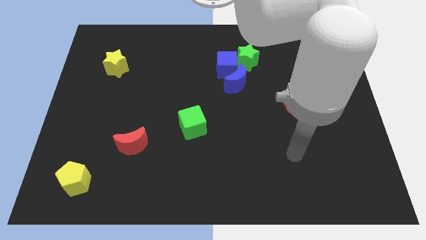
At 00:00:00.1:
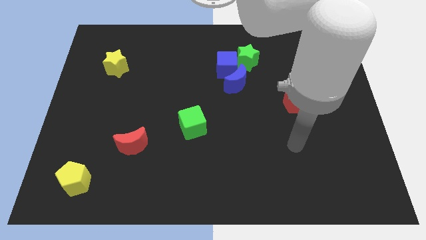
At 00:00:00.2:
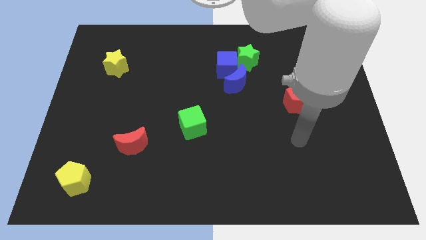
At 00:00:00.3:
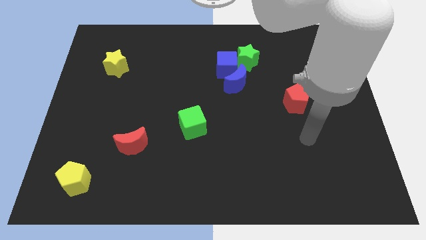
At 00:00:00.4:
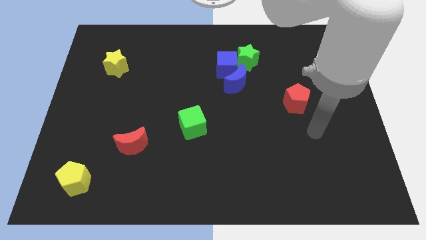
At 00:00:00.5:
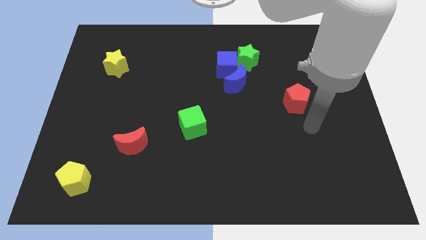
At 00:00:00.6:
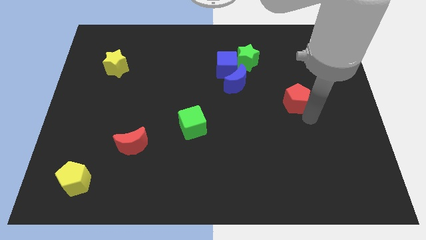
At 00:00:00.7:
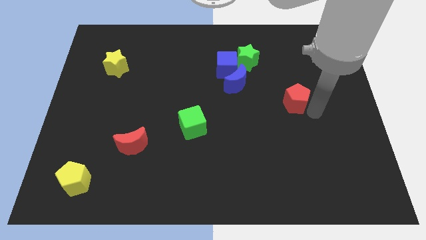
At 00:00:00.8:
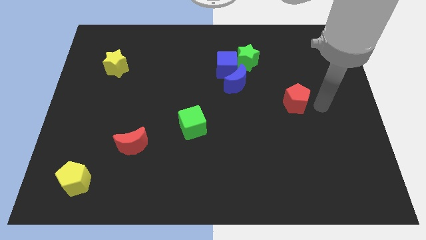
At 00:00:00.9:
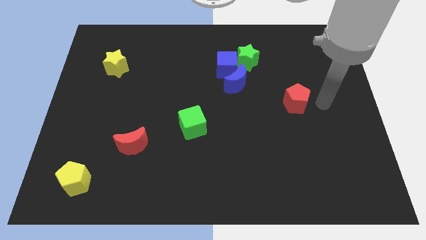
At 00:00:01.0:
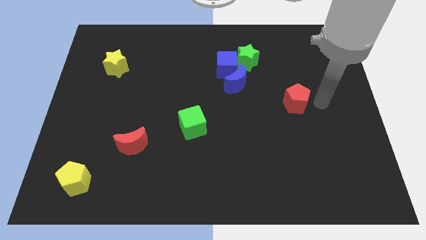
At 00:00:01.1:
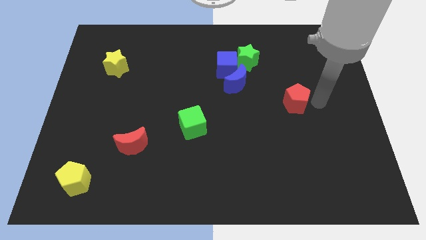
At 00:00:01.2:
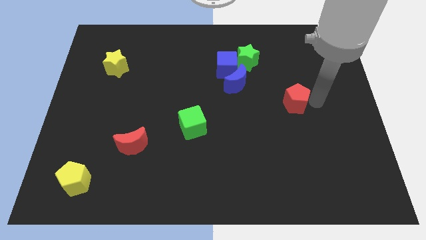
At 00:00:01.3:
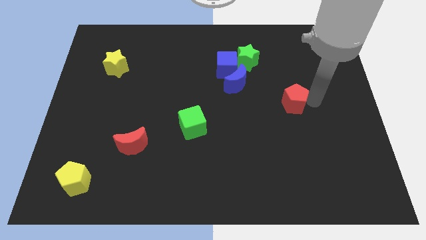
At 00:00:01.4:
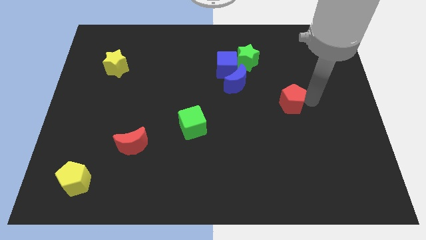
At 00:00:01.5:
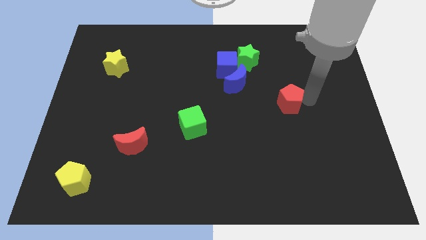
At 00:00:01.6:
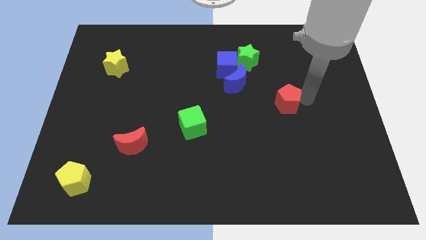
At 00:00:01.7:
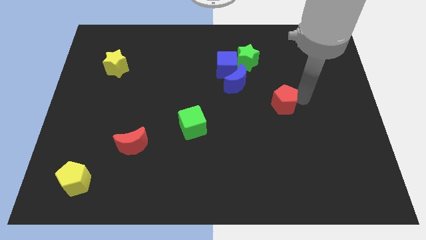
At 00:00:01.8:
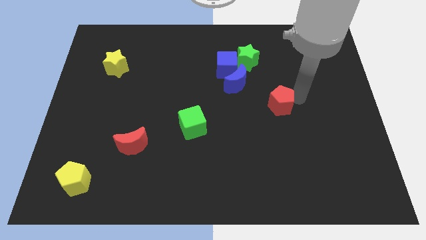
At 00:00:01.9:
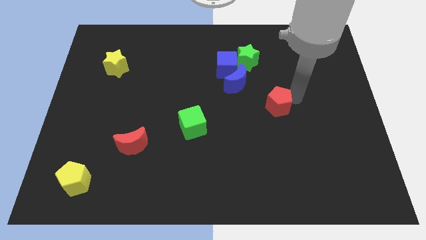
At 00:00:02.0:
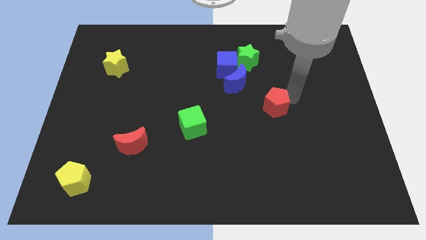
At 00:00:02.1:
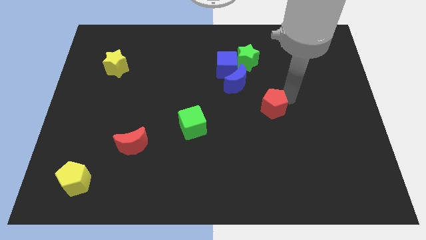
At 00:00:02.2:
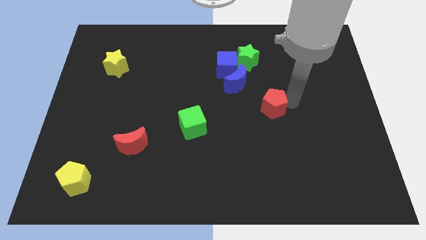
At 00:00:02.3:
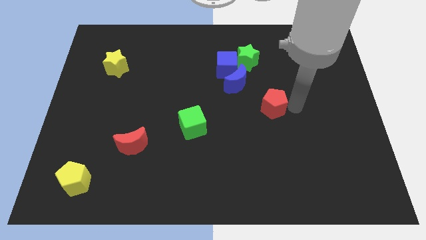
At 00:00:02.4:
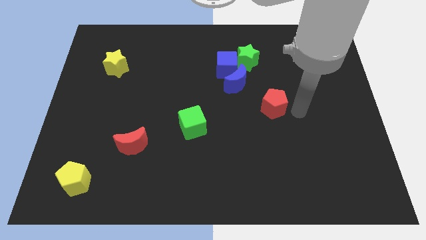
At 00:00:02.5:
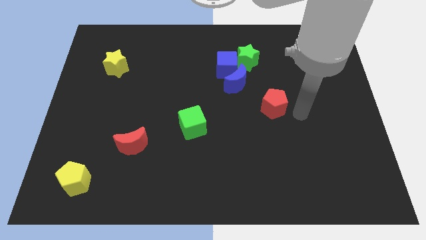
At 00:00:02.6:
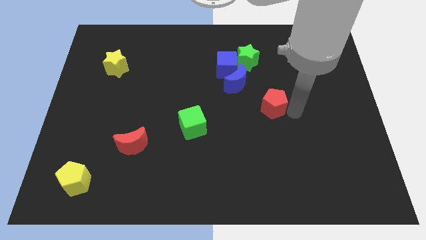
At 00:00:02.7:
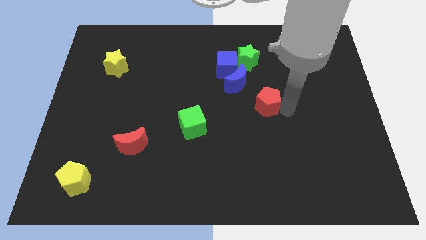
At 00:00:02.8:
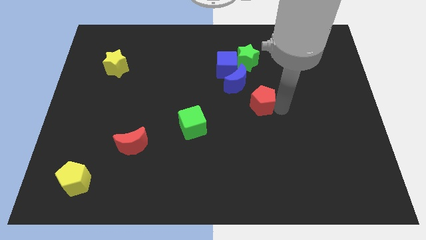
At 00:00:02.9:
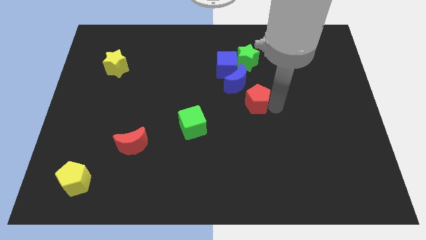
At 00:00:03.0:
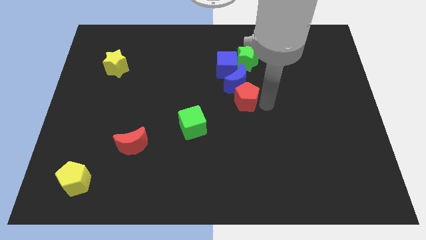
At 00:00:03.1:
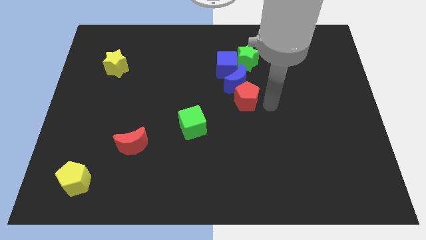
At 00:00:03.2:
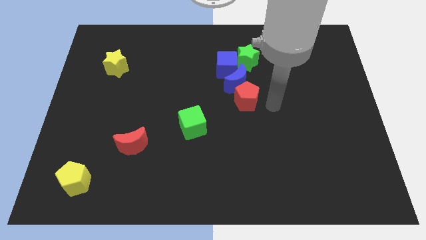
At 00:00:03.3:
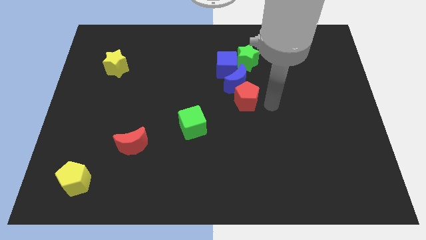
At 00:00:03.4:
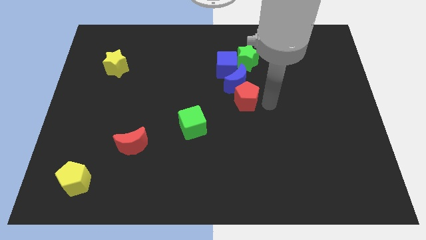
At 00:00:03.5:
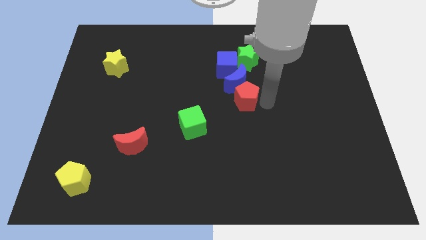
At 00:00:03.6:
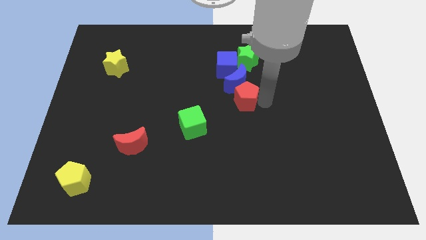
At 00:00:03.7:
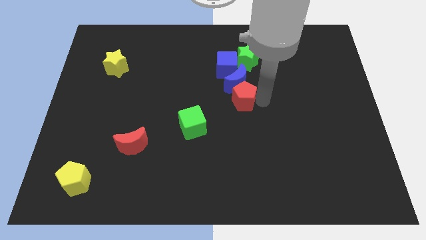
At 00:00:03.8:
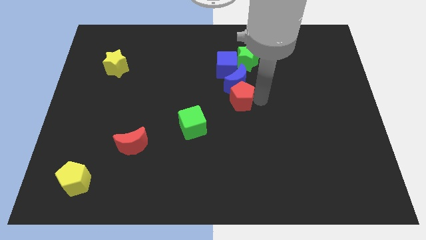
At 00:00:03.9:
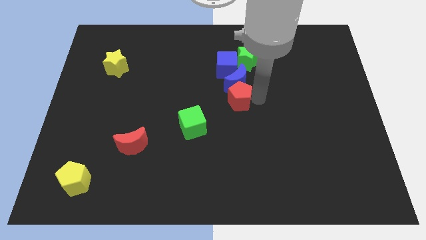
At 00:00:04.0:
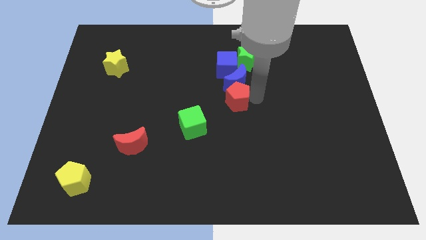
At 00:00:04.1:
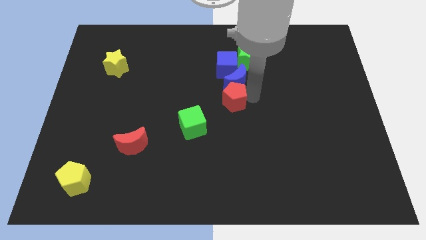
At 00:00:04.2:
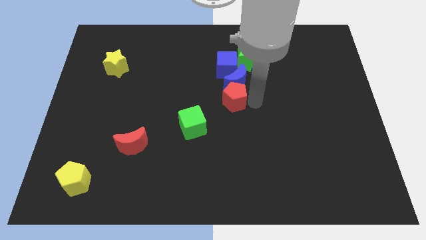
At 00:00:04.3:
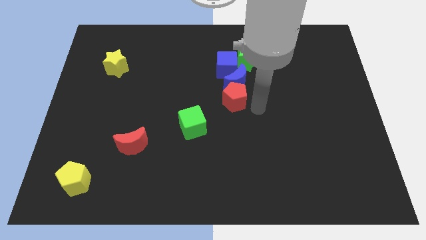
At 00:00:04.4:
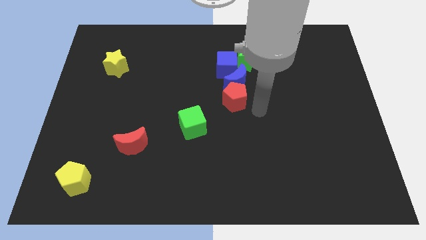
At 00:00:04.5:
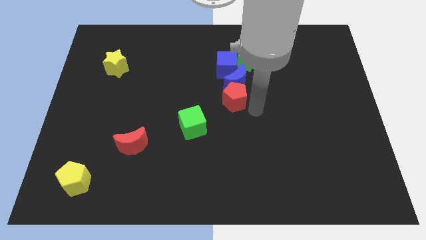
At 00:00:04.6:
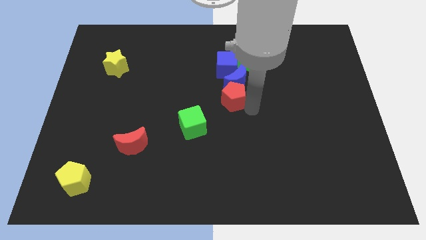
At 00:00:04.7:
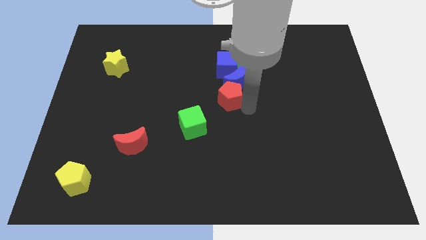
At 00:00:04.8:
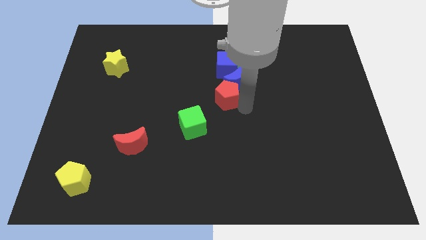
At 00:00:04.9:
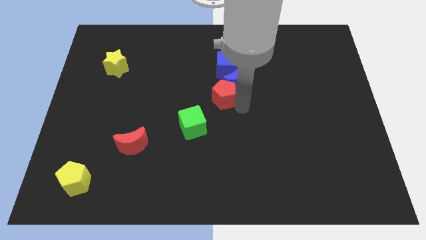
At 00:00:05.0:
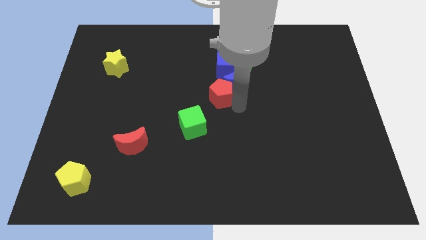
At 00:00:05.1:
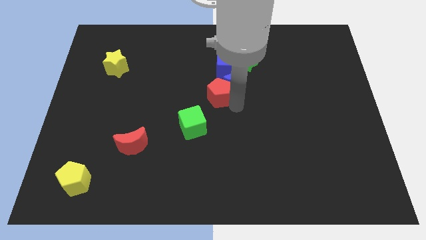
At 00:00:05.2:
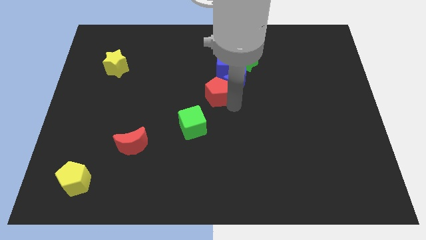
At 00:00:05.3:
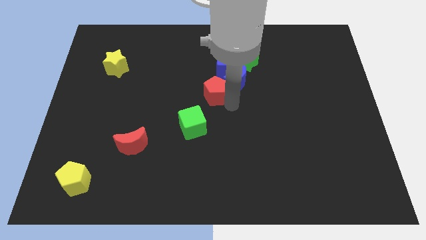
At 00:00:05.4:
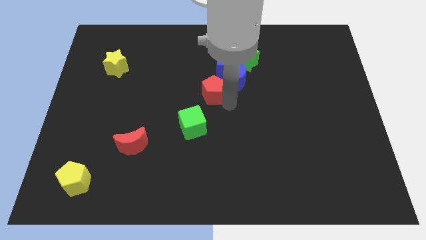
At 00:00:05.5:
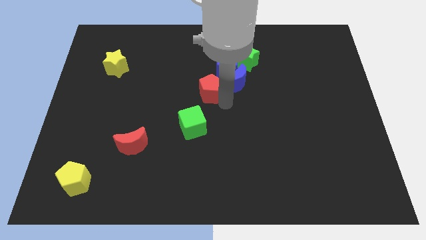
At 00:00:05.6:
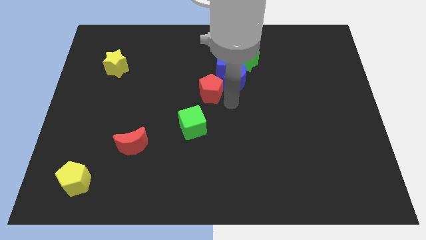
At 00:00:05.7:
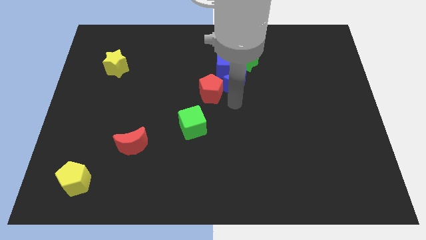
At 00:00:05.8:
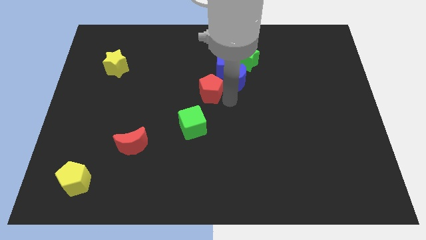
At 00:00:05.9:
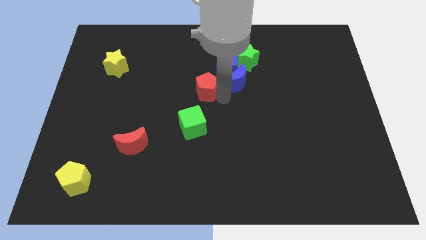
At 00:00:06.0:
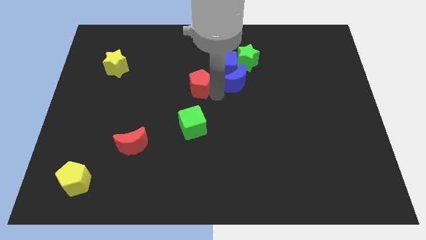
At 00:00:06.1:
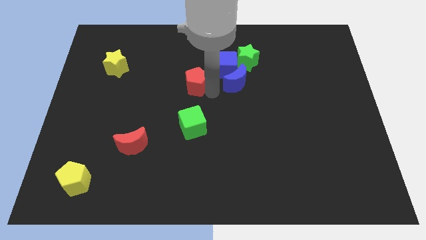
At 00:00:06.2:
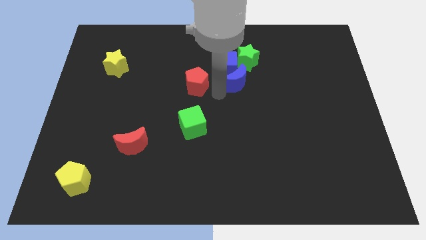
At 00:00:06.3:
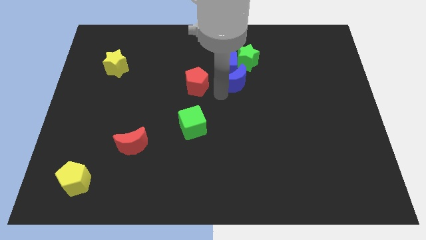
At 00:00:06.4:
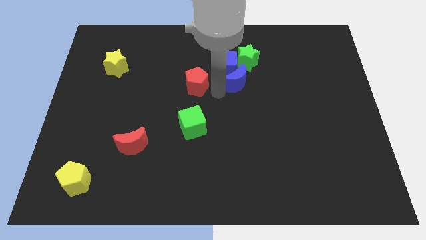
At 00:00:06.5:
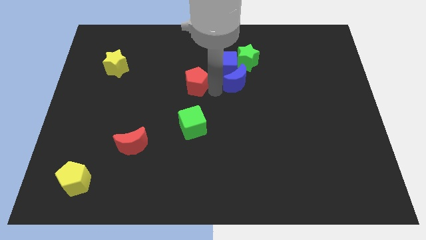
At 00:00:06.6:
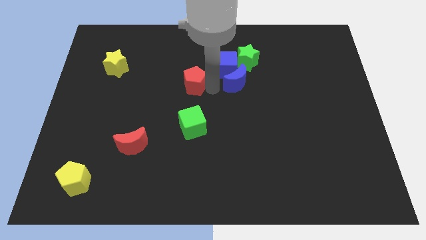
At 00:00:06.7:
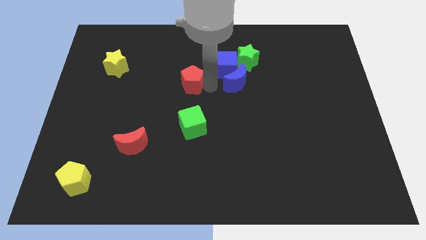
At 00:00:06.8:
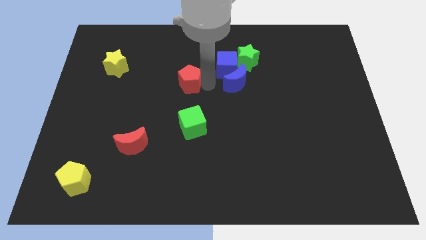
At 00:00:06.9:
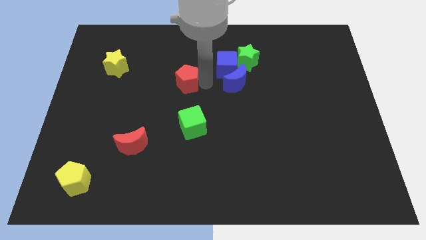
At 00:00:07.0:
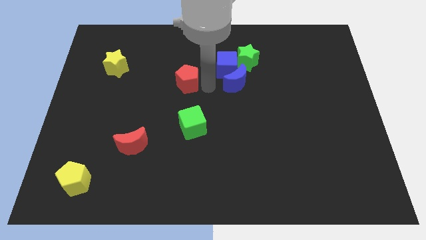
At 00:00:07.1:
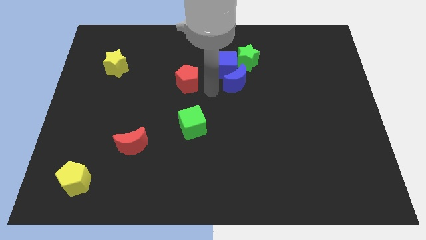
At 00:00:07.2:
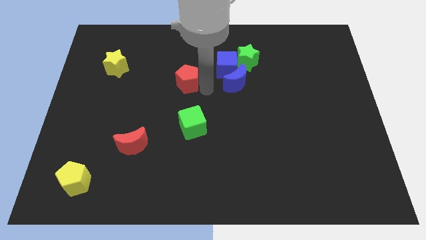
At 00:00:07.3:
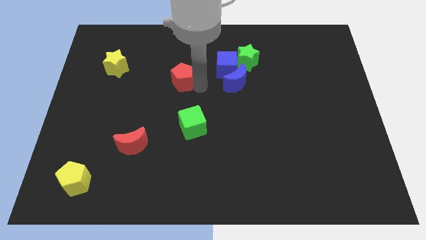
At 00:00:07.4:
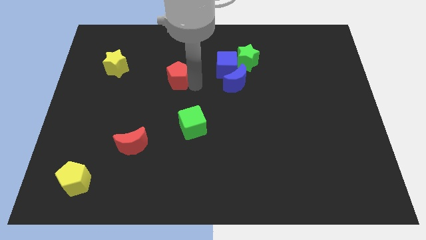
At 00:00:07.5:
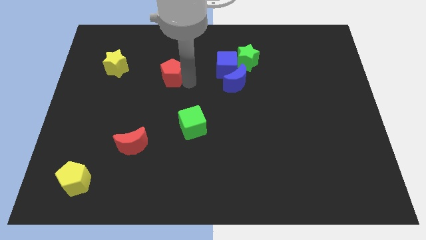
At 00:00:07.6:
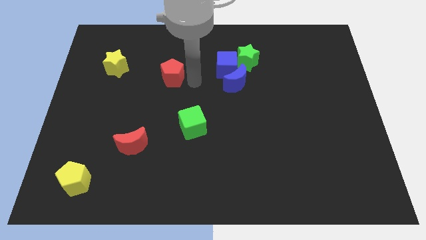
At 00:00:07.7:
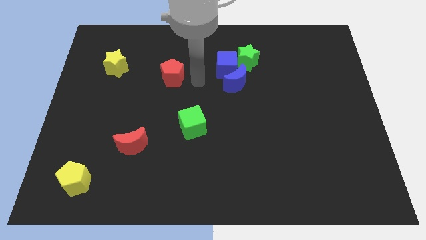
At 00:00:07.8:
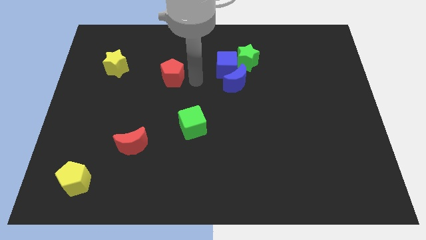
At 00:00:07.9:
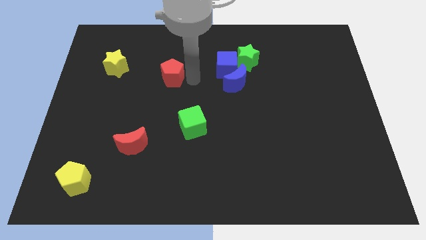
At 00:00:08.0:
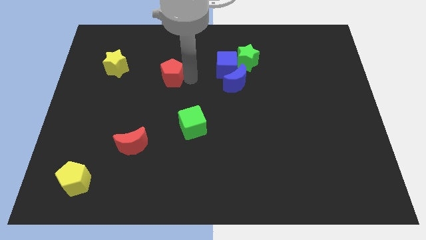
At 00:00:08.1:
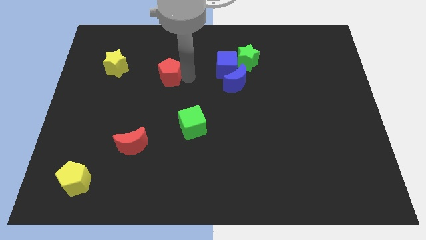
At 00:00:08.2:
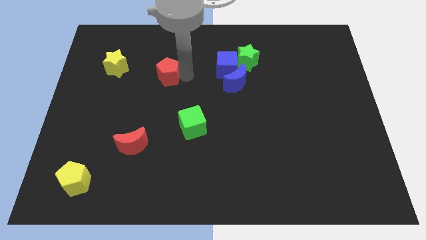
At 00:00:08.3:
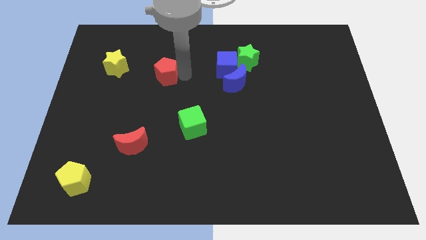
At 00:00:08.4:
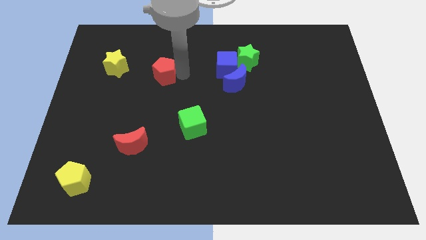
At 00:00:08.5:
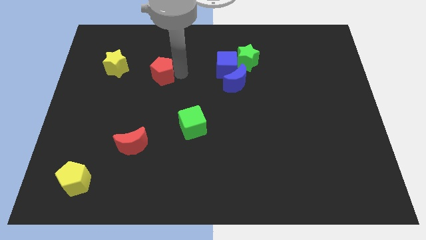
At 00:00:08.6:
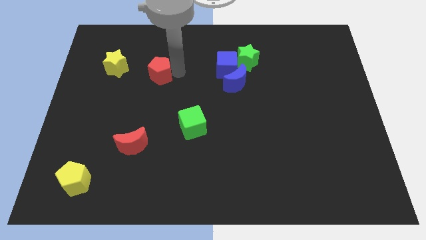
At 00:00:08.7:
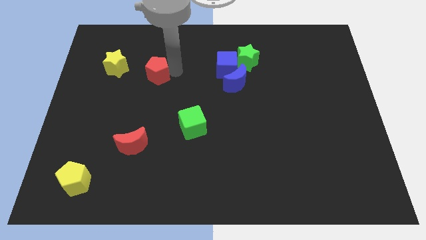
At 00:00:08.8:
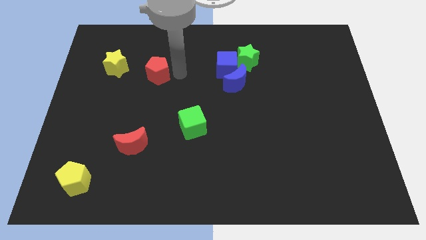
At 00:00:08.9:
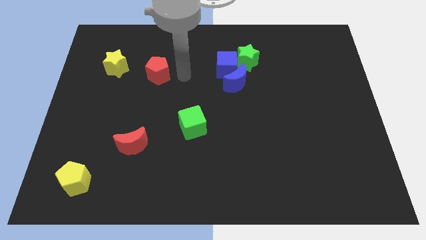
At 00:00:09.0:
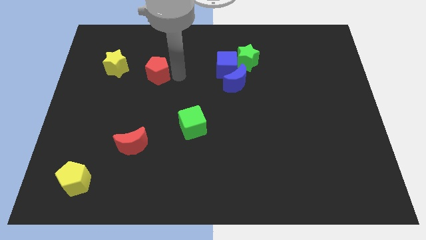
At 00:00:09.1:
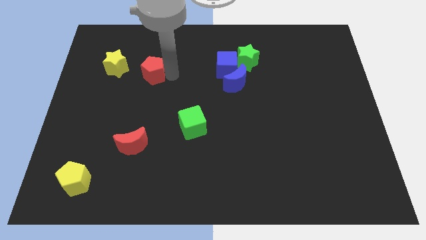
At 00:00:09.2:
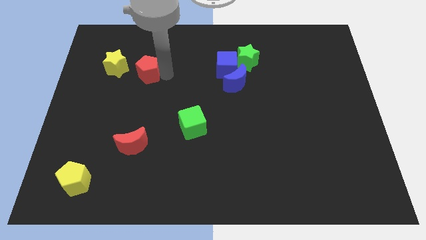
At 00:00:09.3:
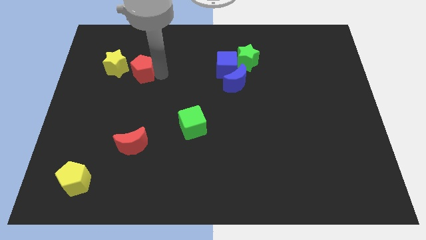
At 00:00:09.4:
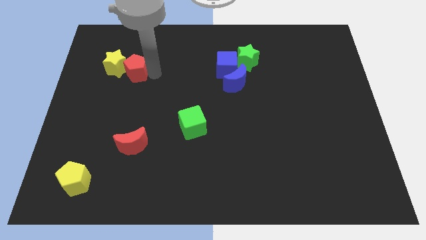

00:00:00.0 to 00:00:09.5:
slide the red pentagon to the yellow star
